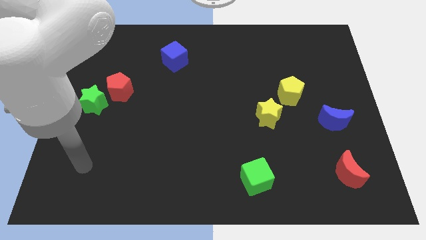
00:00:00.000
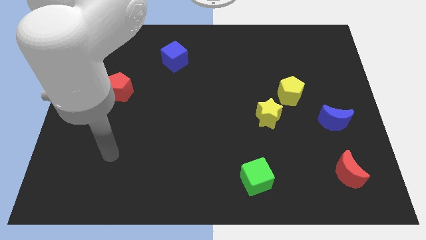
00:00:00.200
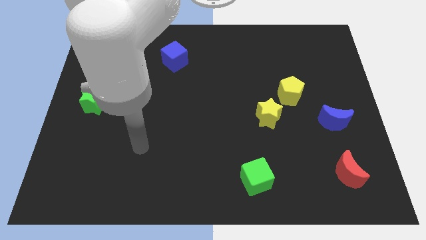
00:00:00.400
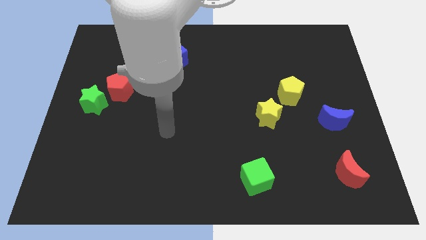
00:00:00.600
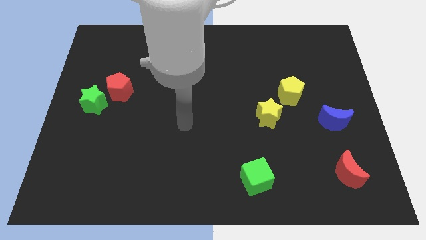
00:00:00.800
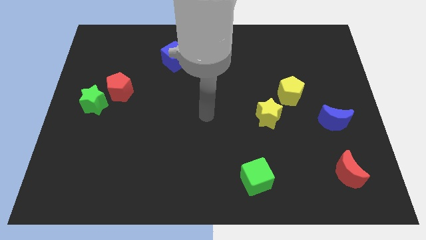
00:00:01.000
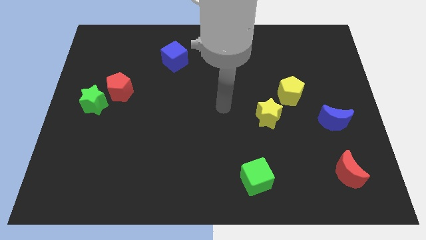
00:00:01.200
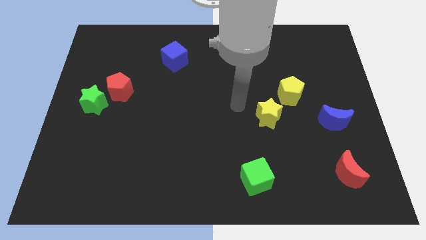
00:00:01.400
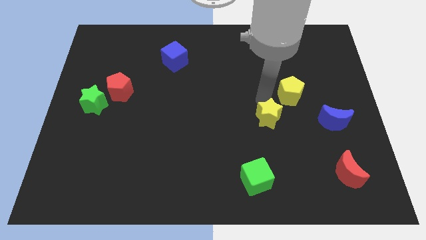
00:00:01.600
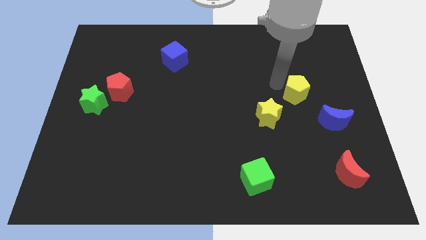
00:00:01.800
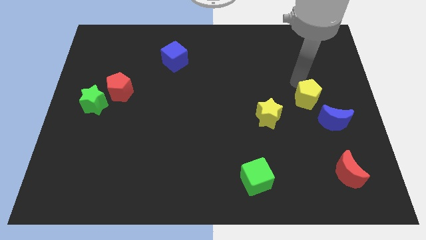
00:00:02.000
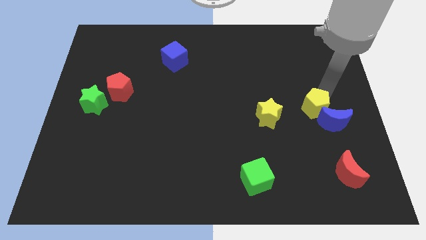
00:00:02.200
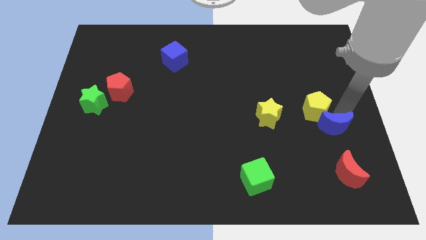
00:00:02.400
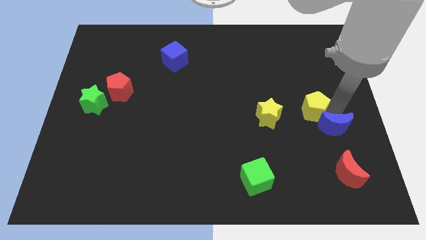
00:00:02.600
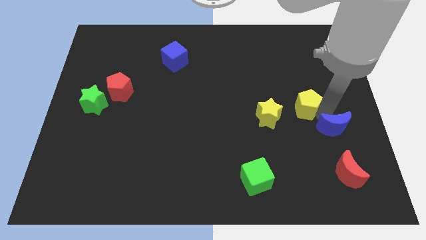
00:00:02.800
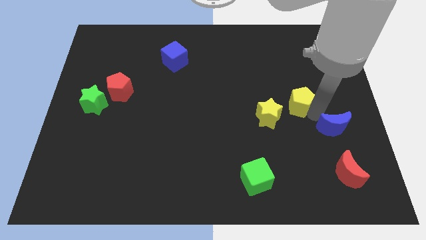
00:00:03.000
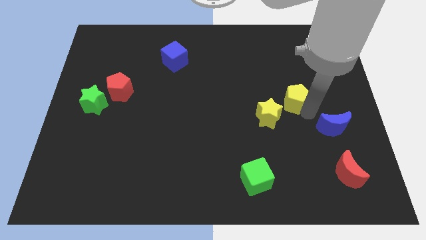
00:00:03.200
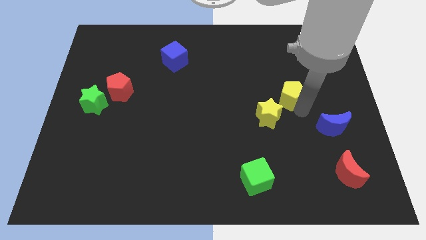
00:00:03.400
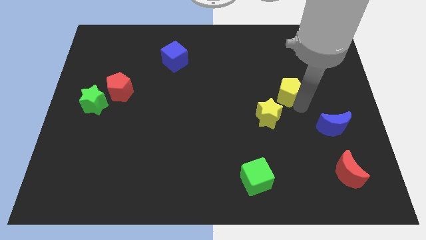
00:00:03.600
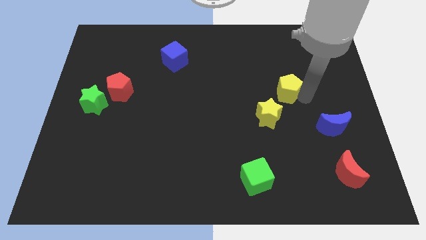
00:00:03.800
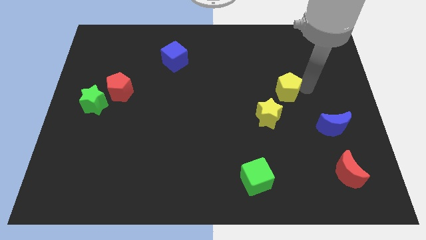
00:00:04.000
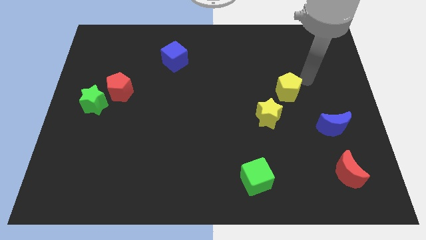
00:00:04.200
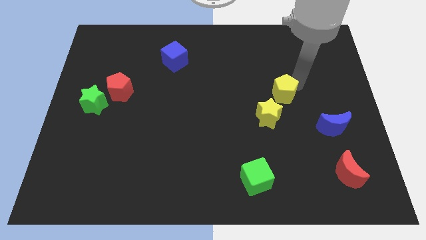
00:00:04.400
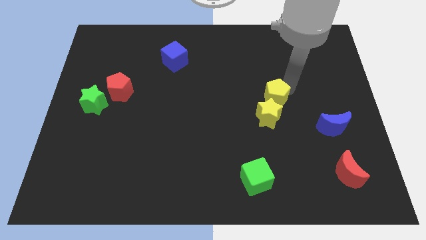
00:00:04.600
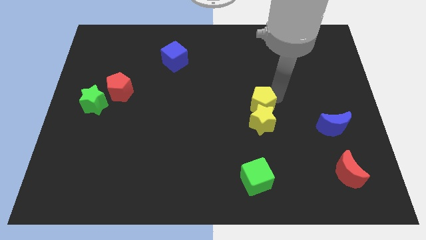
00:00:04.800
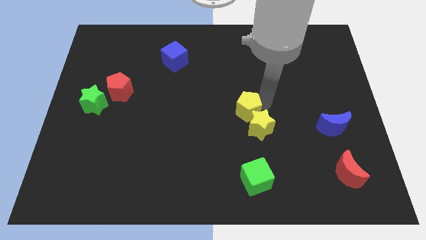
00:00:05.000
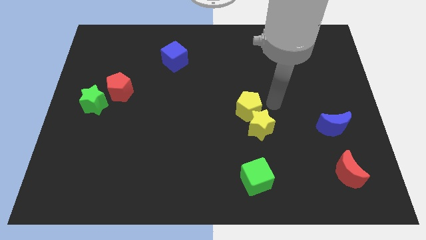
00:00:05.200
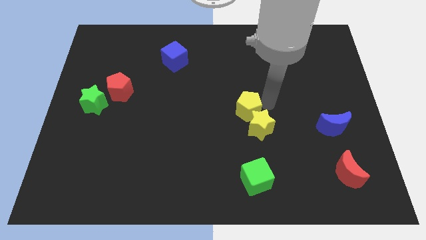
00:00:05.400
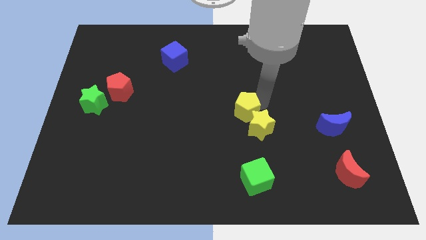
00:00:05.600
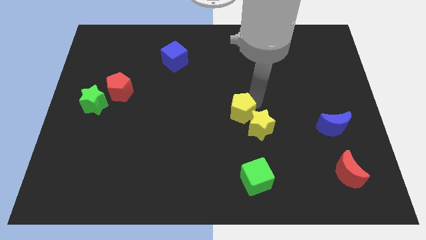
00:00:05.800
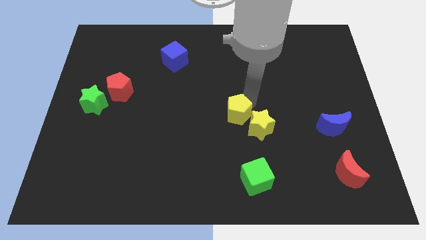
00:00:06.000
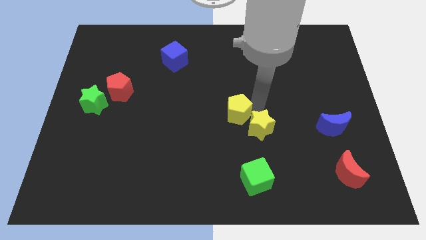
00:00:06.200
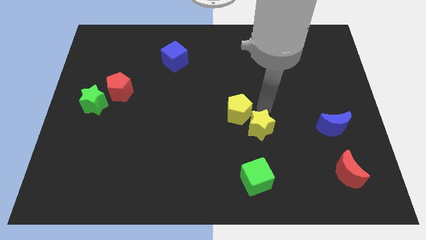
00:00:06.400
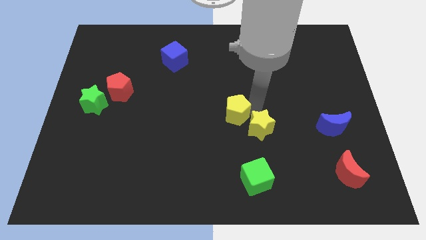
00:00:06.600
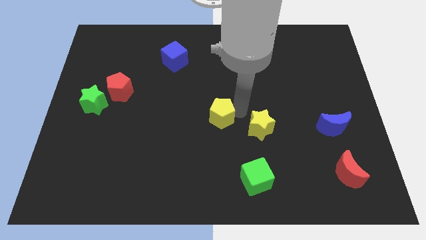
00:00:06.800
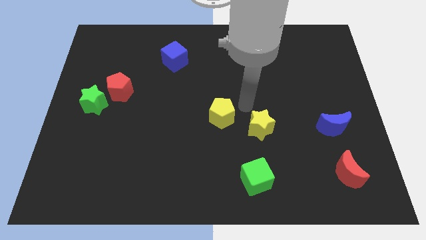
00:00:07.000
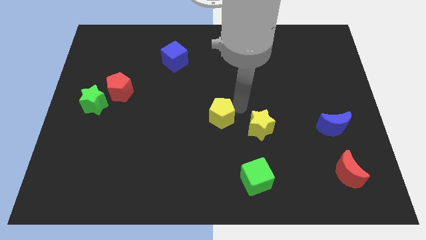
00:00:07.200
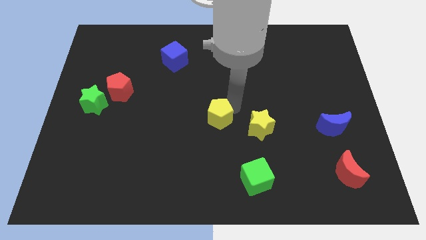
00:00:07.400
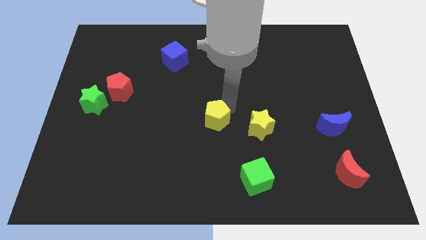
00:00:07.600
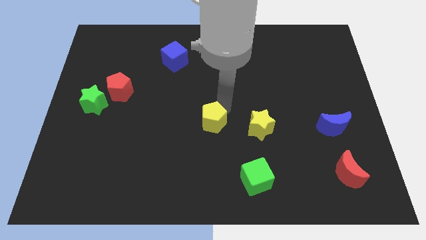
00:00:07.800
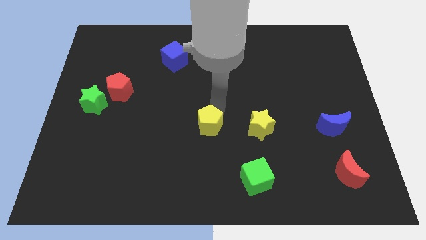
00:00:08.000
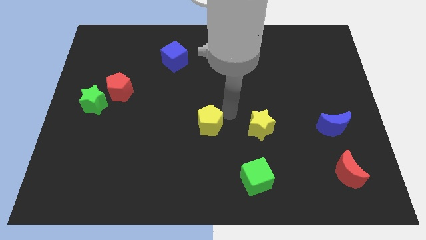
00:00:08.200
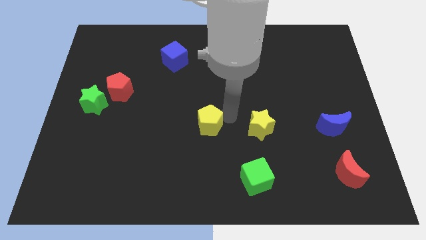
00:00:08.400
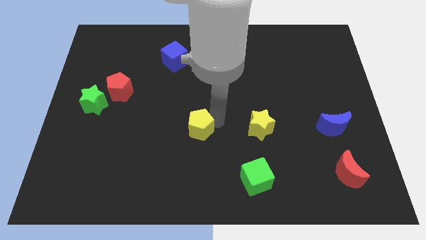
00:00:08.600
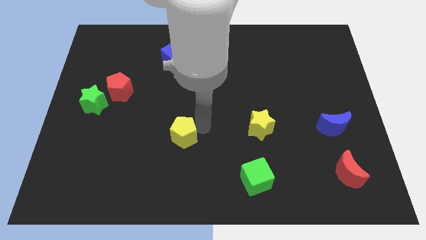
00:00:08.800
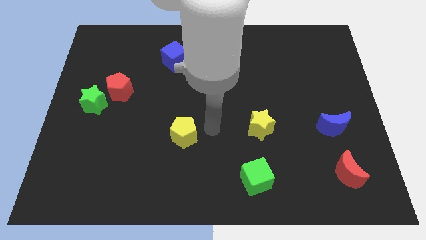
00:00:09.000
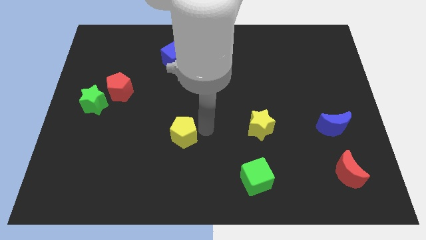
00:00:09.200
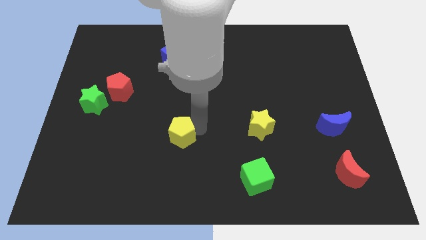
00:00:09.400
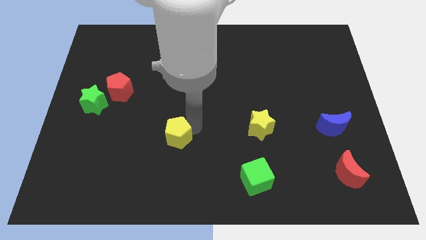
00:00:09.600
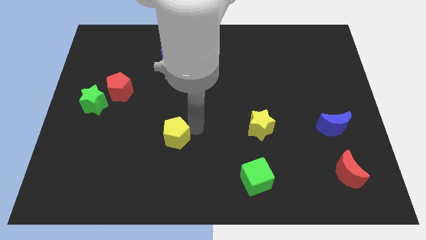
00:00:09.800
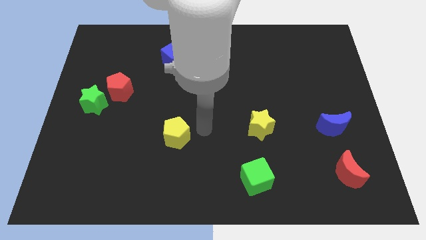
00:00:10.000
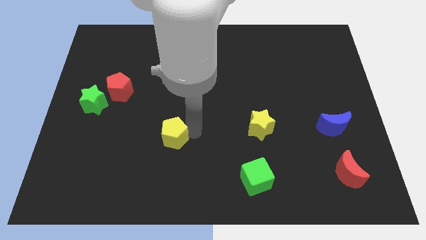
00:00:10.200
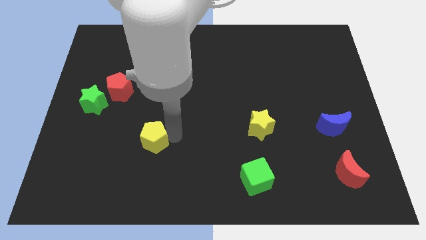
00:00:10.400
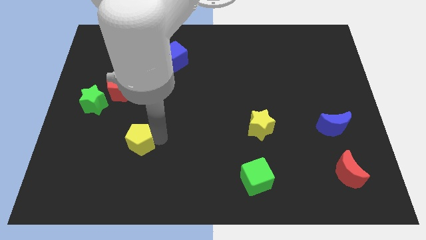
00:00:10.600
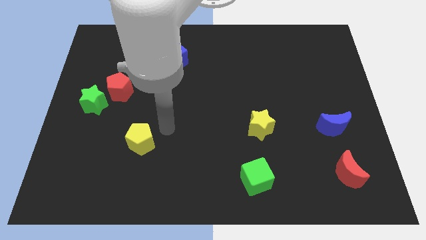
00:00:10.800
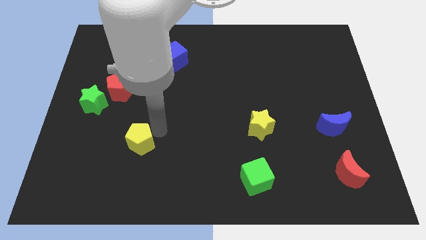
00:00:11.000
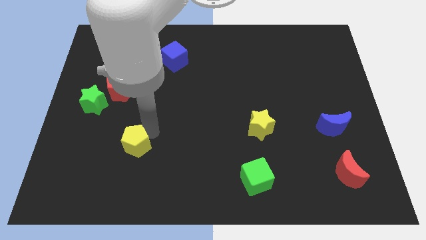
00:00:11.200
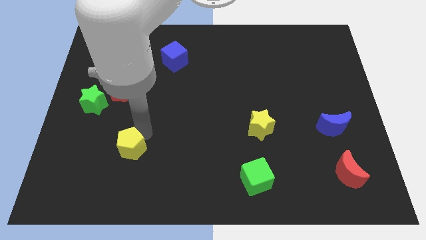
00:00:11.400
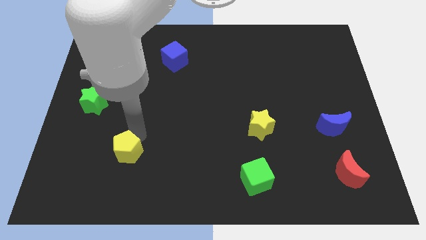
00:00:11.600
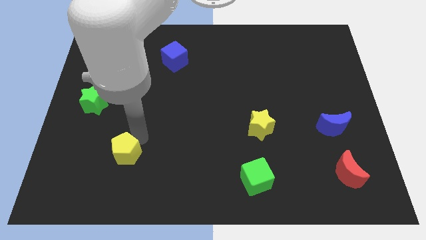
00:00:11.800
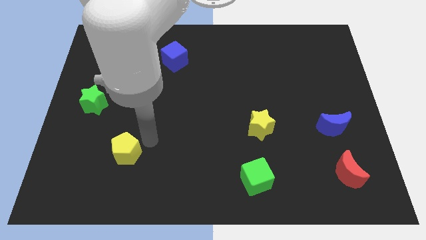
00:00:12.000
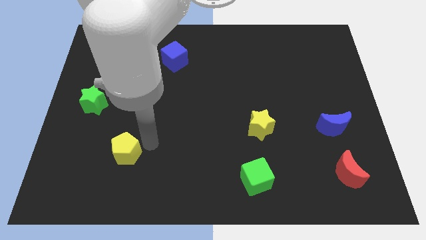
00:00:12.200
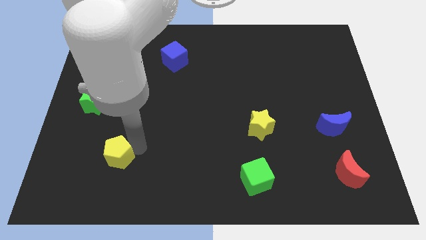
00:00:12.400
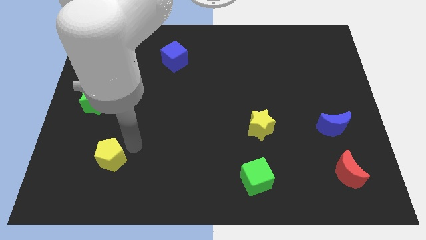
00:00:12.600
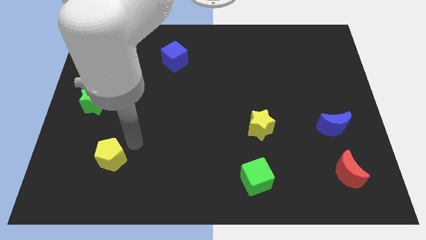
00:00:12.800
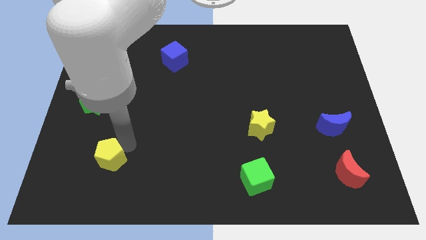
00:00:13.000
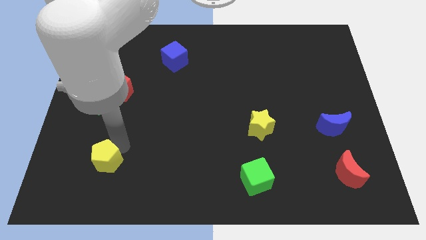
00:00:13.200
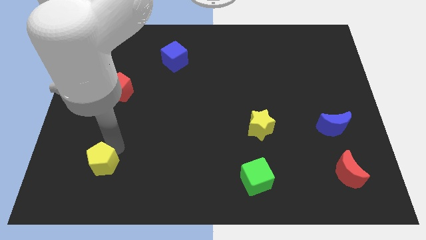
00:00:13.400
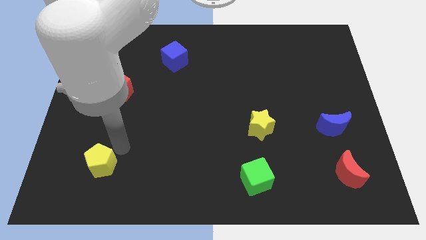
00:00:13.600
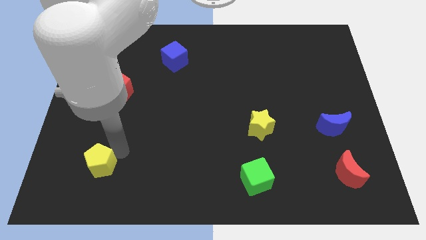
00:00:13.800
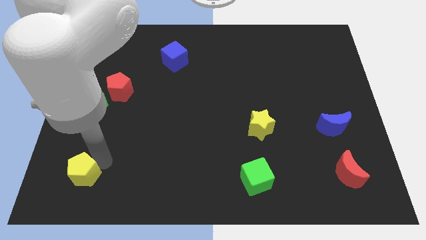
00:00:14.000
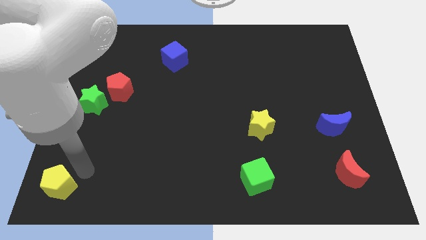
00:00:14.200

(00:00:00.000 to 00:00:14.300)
put the yellow pentagon to the lower left corner
